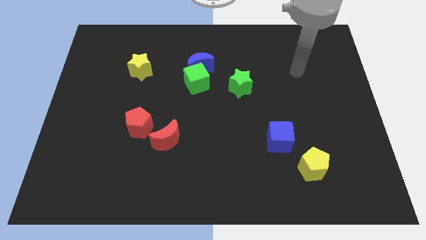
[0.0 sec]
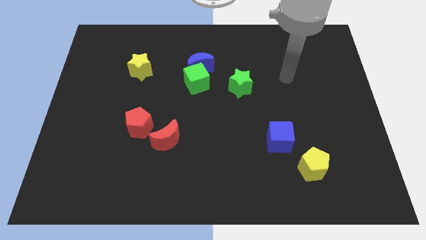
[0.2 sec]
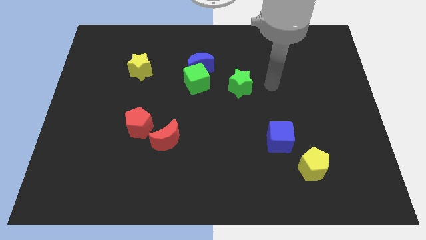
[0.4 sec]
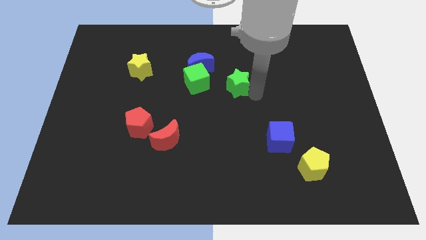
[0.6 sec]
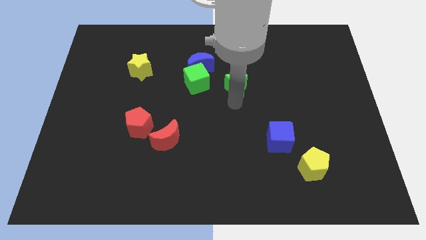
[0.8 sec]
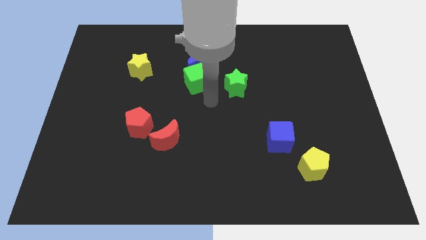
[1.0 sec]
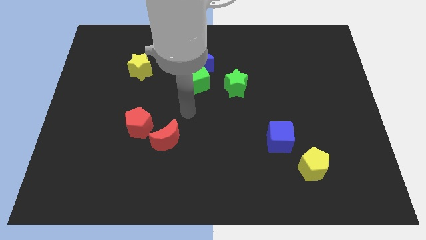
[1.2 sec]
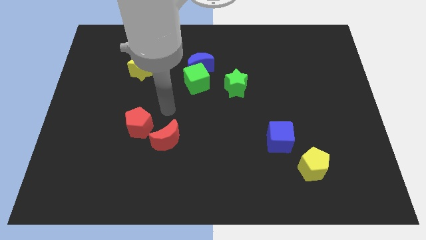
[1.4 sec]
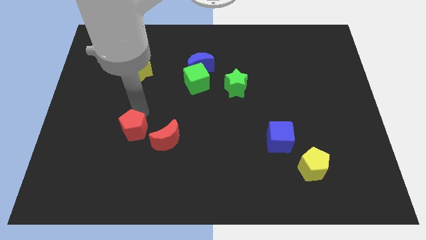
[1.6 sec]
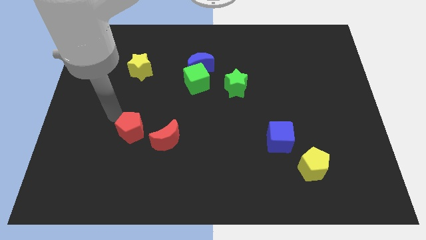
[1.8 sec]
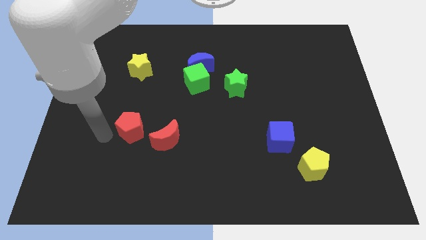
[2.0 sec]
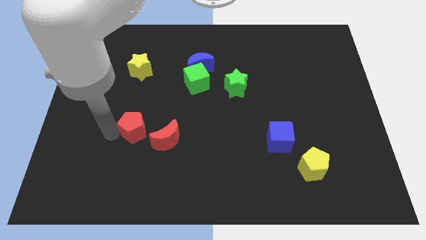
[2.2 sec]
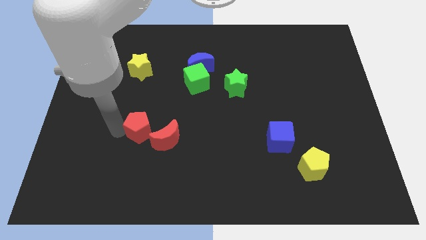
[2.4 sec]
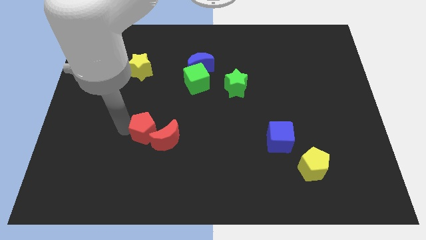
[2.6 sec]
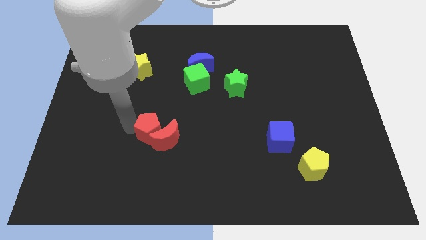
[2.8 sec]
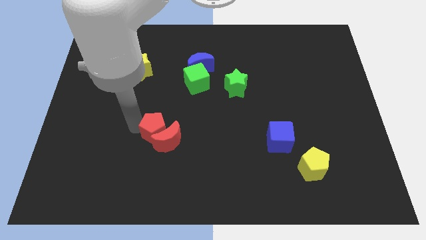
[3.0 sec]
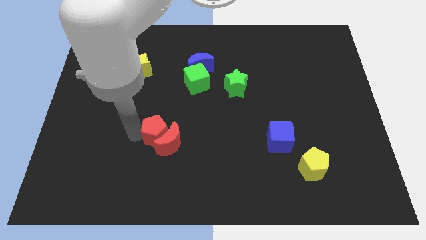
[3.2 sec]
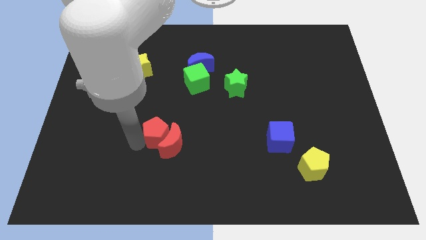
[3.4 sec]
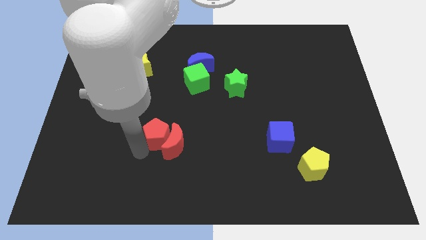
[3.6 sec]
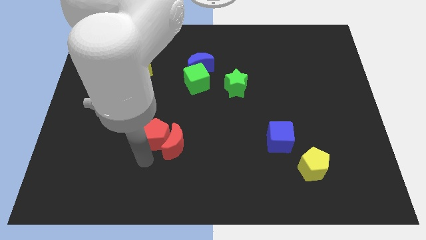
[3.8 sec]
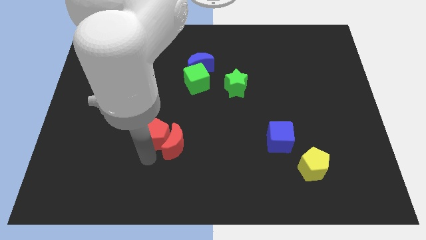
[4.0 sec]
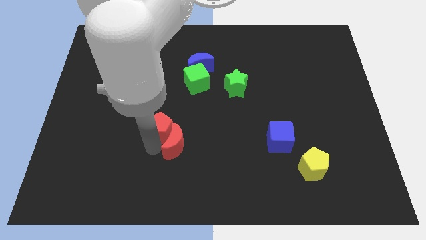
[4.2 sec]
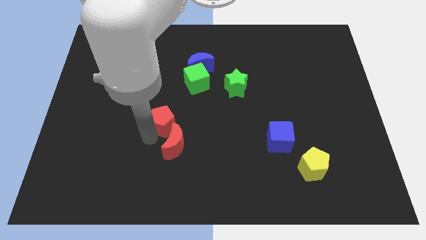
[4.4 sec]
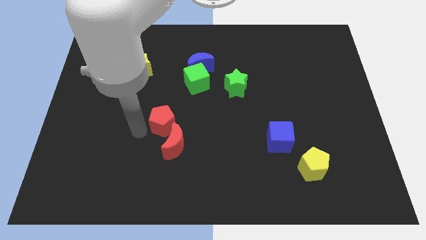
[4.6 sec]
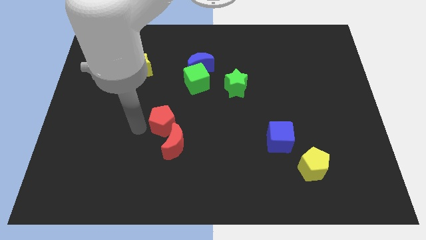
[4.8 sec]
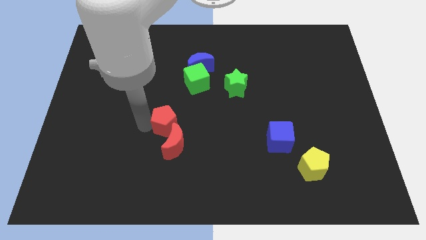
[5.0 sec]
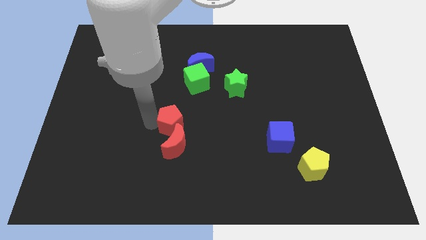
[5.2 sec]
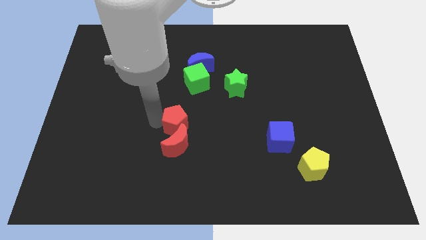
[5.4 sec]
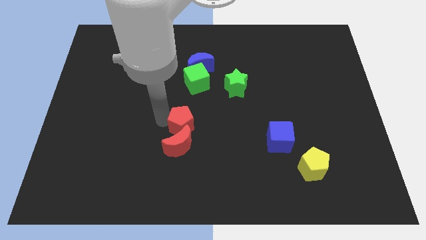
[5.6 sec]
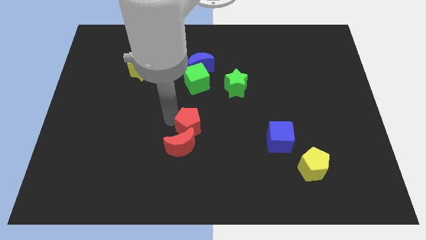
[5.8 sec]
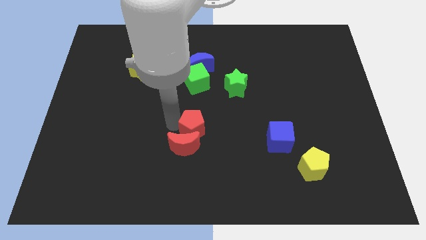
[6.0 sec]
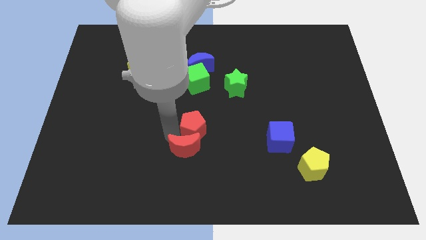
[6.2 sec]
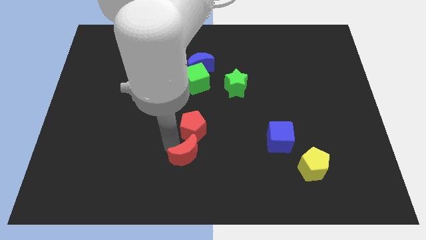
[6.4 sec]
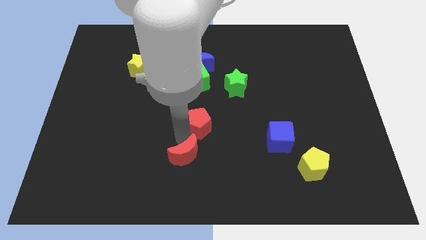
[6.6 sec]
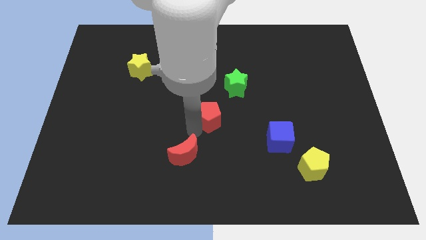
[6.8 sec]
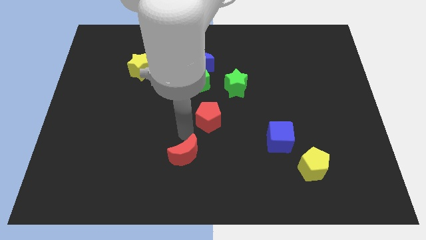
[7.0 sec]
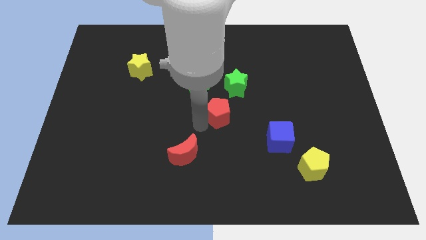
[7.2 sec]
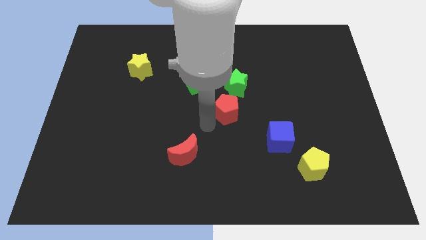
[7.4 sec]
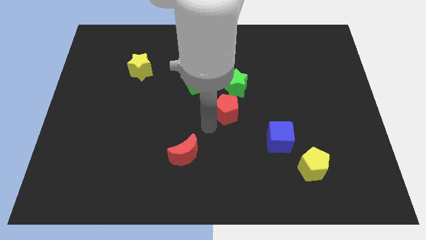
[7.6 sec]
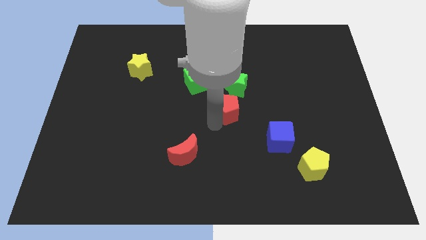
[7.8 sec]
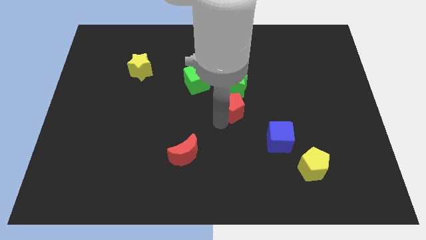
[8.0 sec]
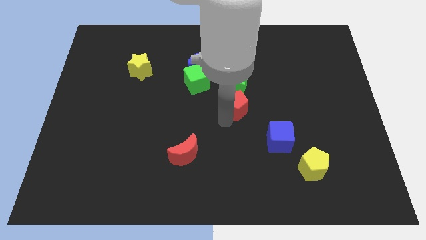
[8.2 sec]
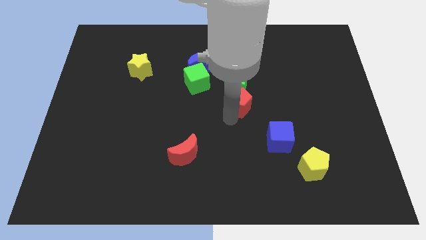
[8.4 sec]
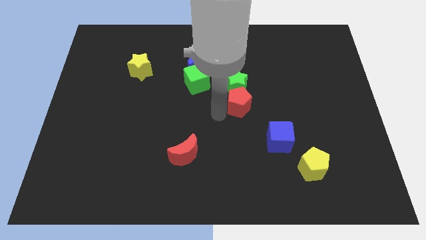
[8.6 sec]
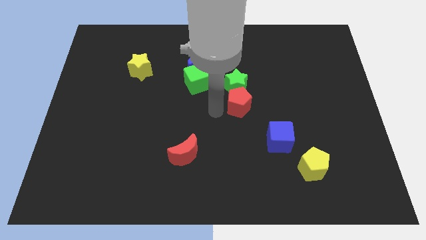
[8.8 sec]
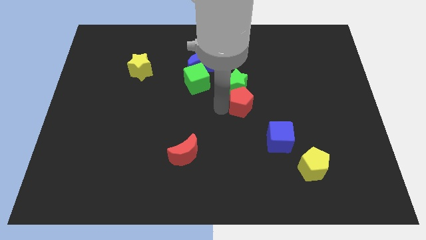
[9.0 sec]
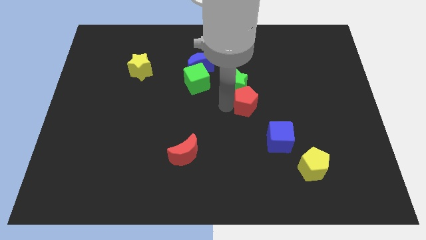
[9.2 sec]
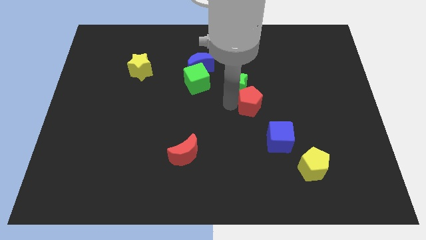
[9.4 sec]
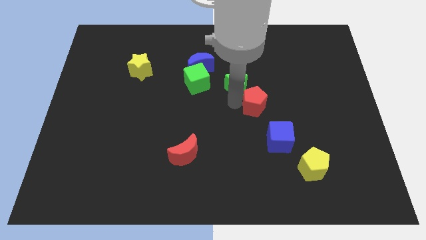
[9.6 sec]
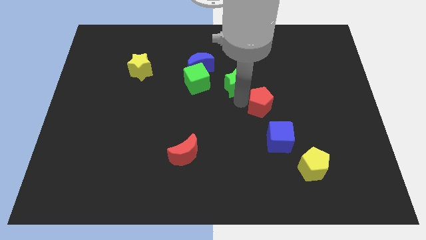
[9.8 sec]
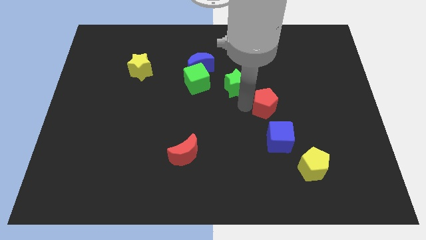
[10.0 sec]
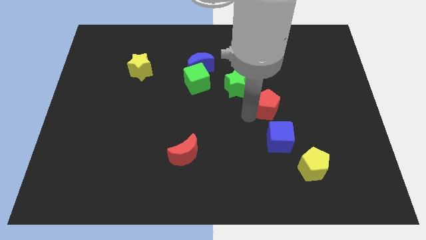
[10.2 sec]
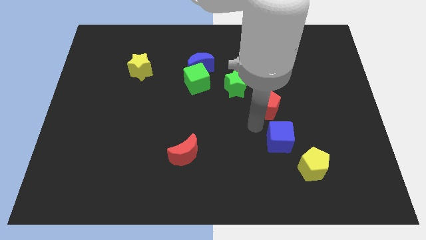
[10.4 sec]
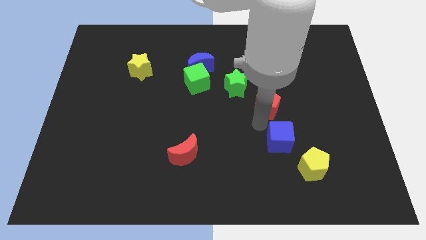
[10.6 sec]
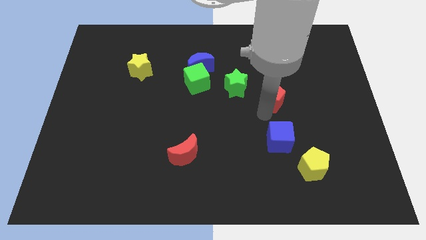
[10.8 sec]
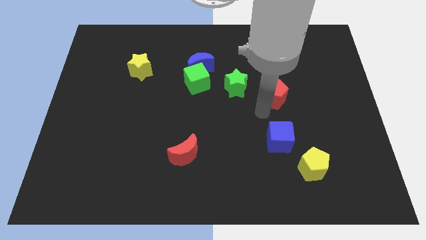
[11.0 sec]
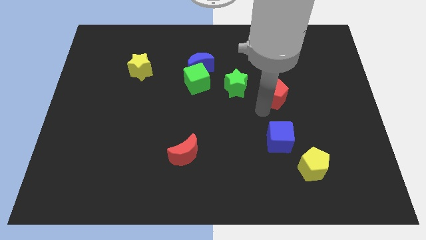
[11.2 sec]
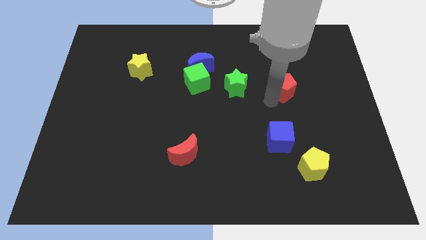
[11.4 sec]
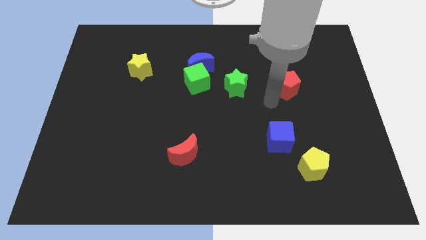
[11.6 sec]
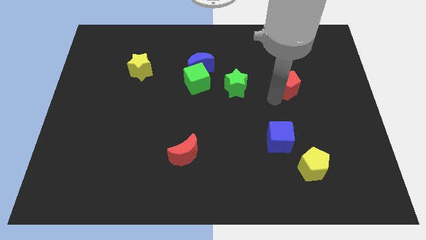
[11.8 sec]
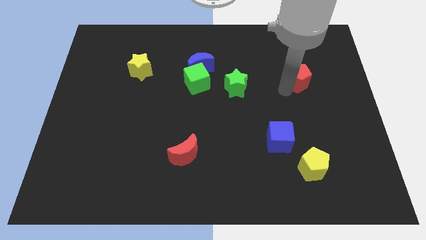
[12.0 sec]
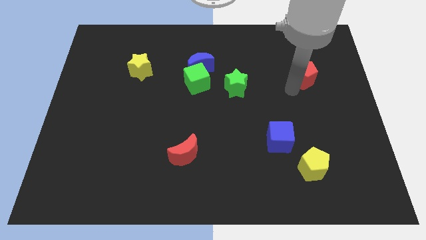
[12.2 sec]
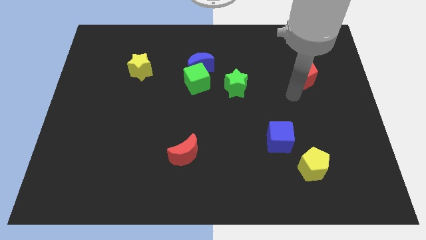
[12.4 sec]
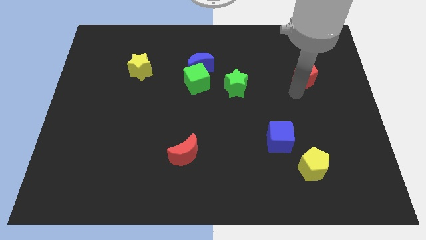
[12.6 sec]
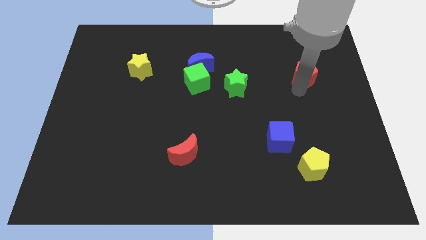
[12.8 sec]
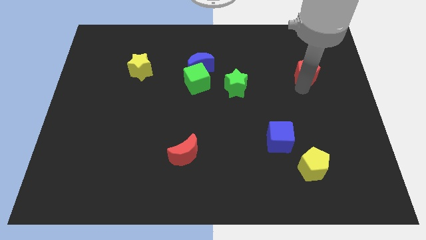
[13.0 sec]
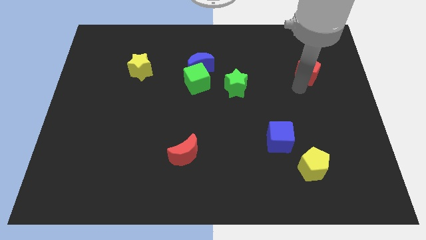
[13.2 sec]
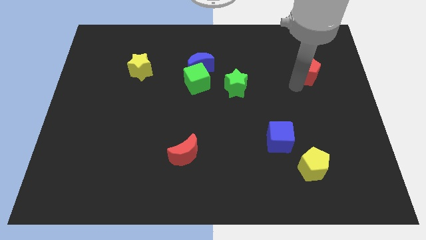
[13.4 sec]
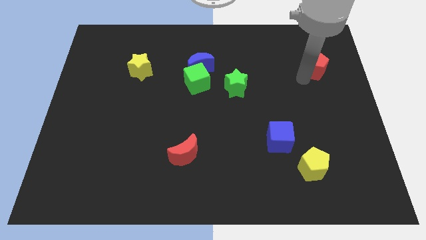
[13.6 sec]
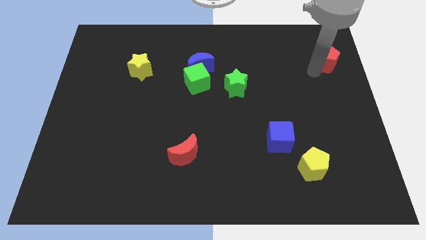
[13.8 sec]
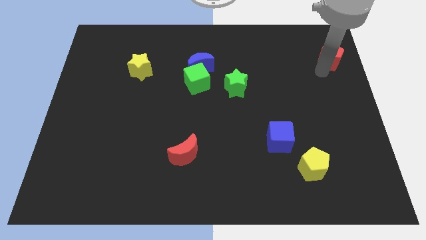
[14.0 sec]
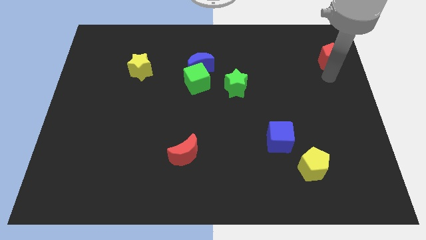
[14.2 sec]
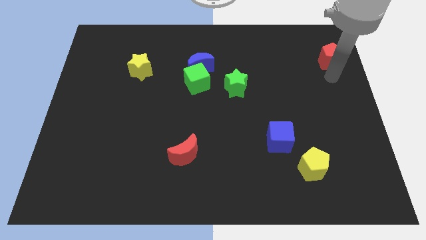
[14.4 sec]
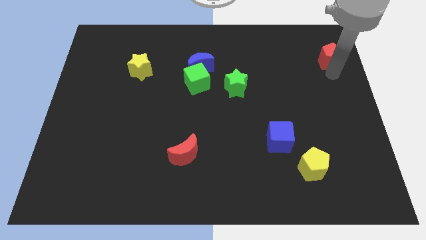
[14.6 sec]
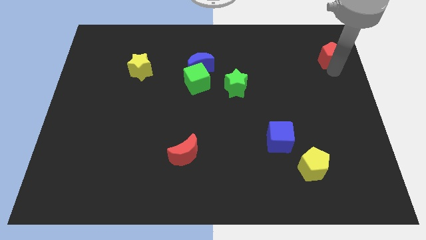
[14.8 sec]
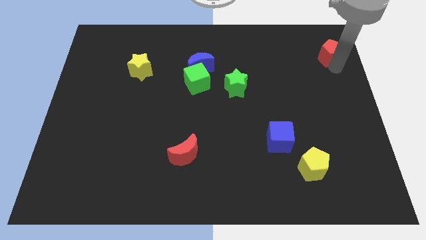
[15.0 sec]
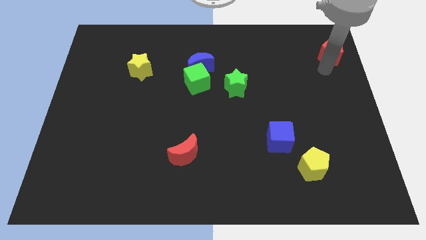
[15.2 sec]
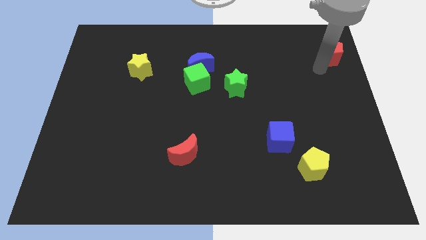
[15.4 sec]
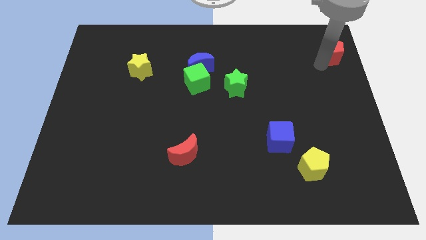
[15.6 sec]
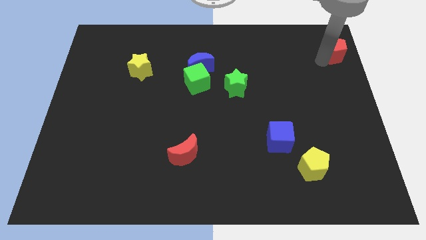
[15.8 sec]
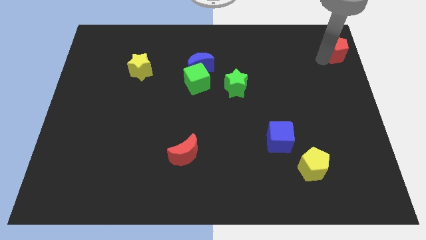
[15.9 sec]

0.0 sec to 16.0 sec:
push the red pentagon to the top right corner
